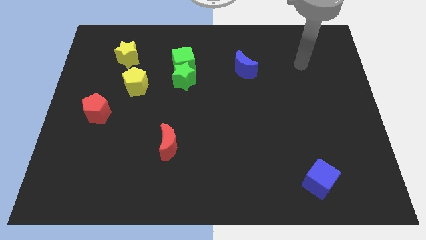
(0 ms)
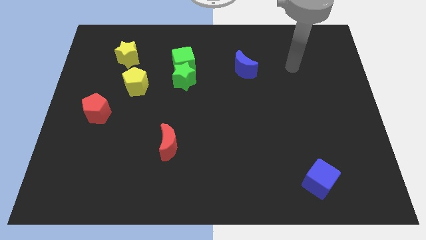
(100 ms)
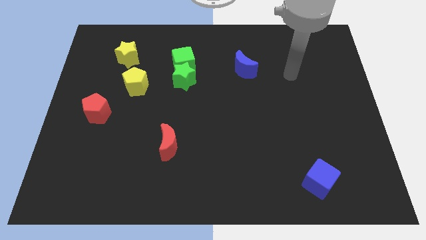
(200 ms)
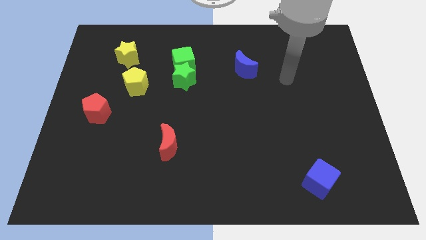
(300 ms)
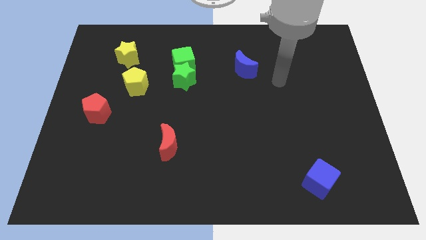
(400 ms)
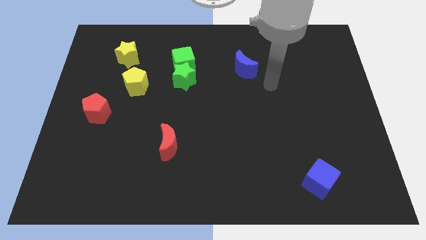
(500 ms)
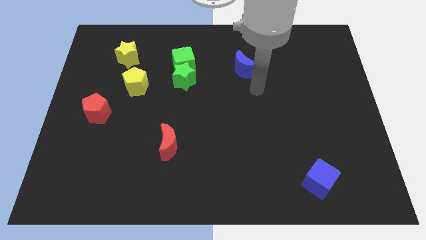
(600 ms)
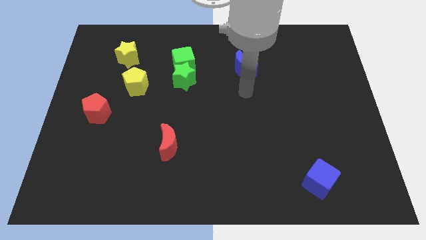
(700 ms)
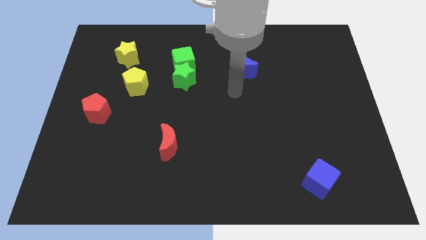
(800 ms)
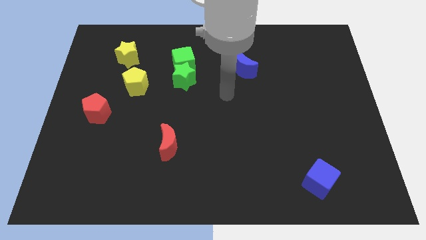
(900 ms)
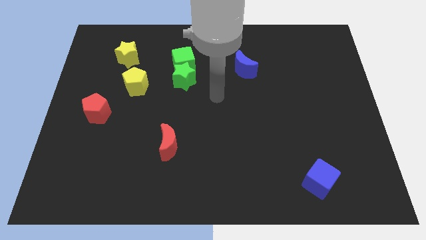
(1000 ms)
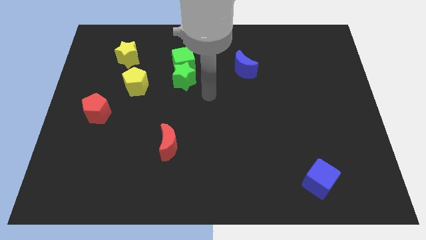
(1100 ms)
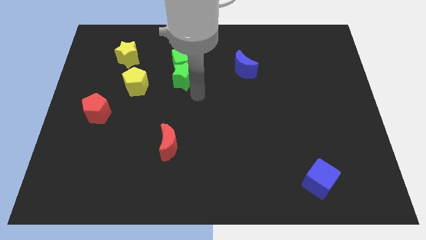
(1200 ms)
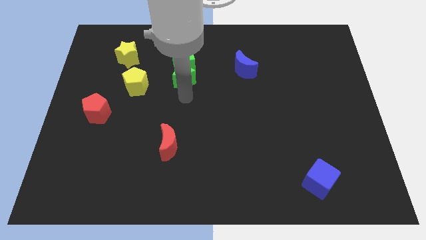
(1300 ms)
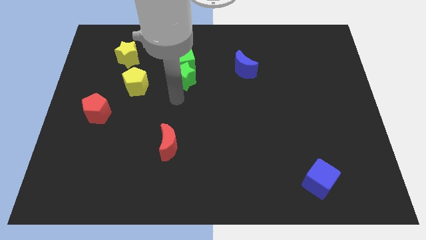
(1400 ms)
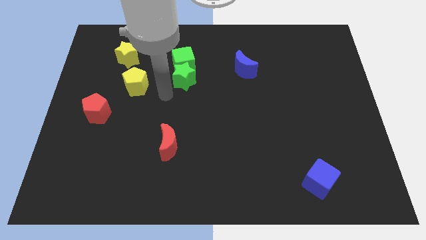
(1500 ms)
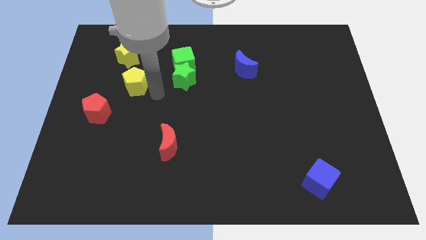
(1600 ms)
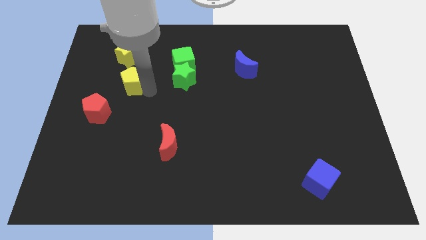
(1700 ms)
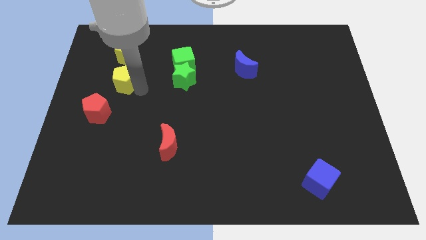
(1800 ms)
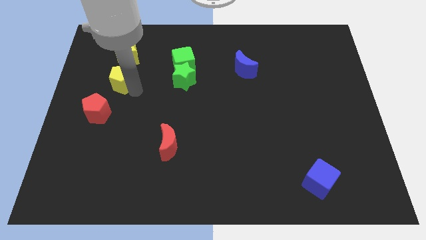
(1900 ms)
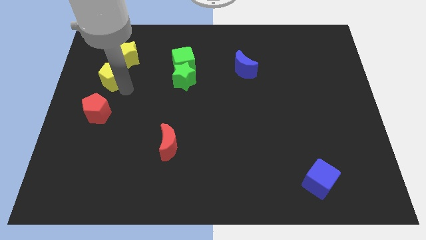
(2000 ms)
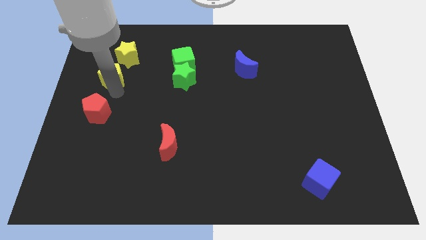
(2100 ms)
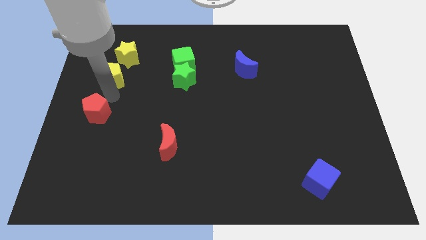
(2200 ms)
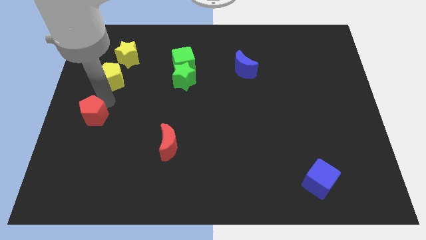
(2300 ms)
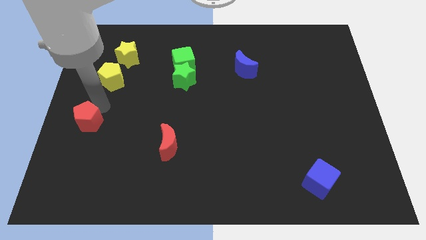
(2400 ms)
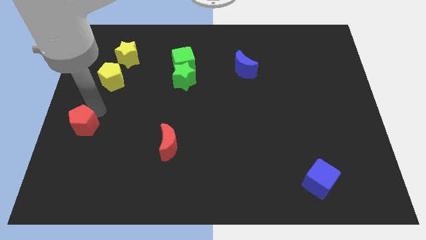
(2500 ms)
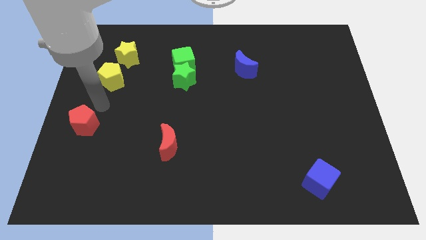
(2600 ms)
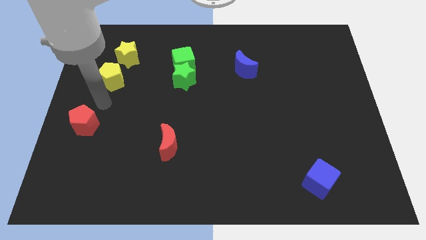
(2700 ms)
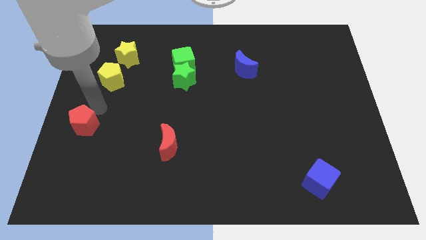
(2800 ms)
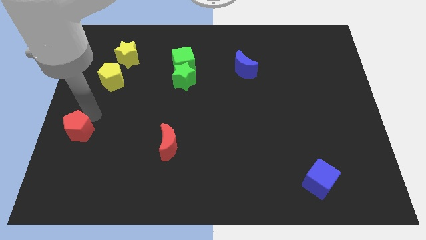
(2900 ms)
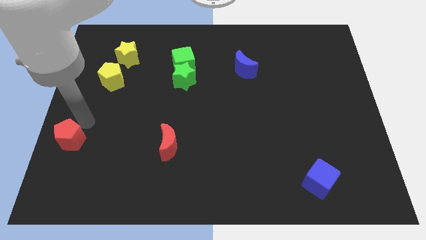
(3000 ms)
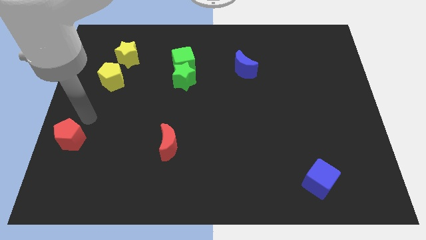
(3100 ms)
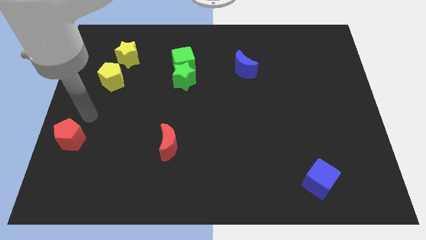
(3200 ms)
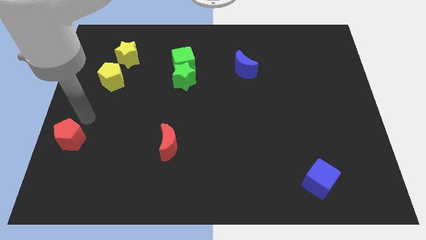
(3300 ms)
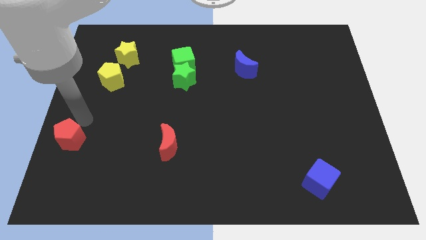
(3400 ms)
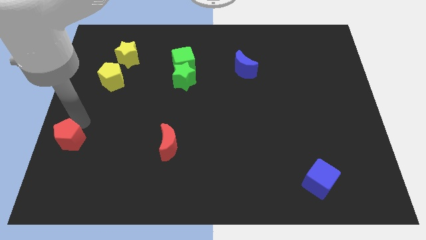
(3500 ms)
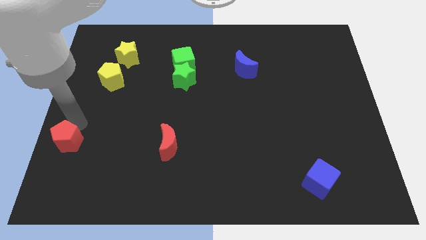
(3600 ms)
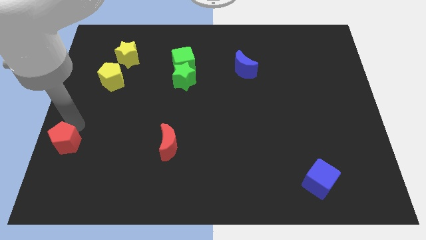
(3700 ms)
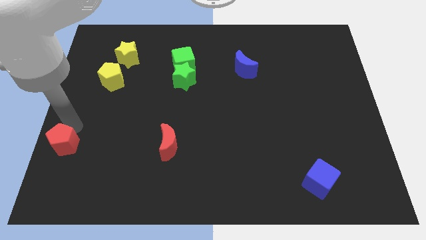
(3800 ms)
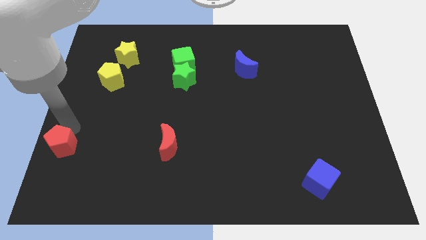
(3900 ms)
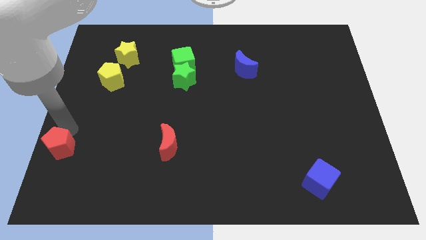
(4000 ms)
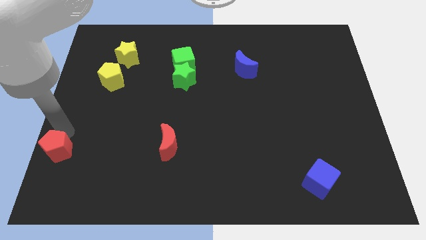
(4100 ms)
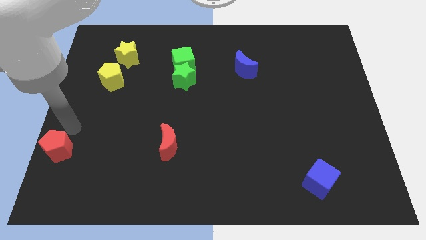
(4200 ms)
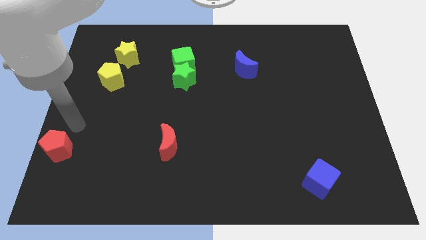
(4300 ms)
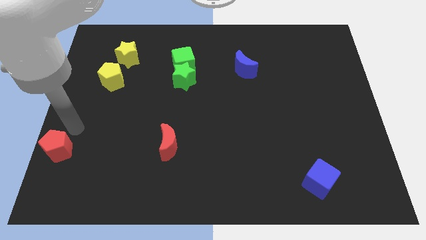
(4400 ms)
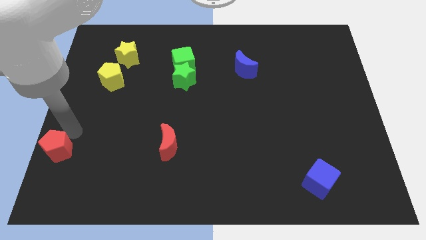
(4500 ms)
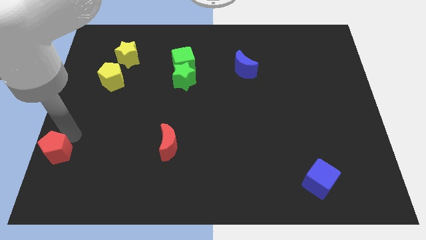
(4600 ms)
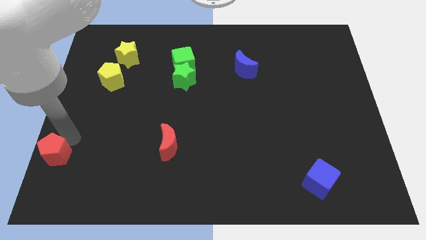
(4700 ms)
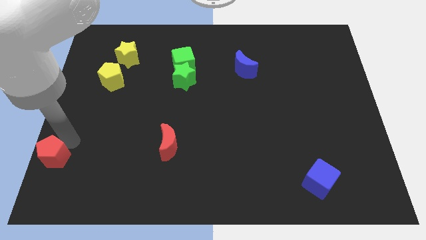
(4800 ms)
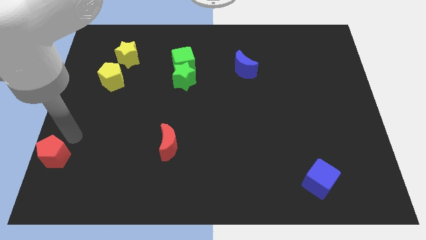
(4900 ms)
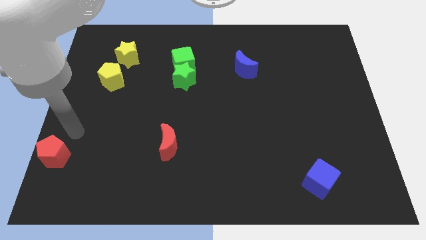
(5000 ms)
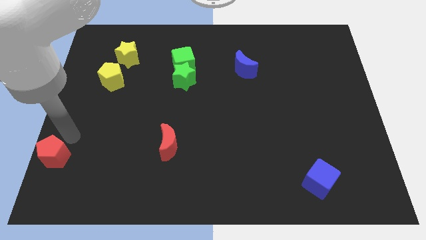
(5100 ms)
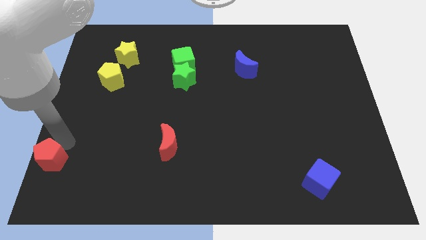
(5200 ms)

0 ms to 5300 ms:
put the red pentagon to the bottom left corner
